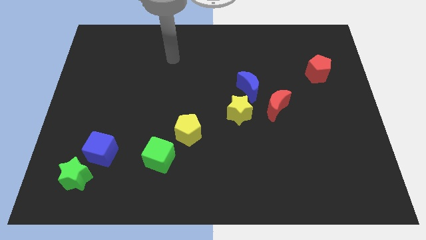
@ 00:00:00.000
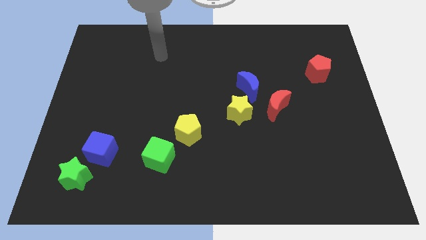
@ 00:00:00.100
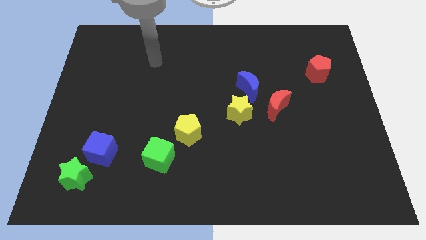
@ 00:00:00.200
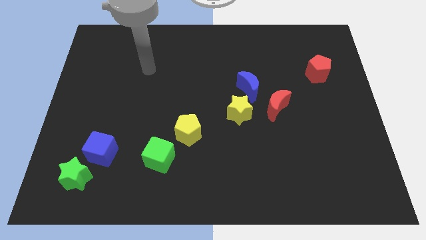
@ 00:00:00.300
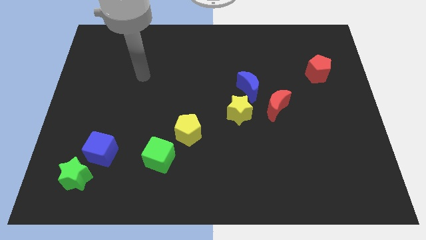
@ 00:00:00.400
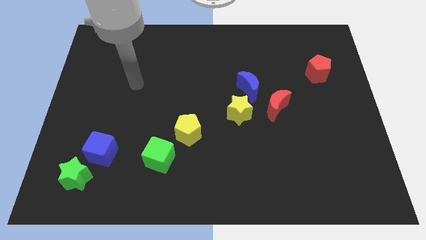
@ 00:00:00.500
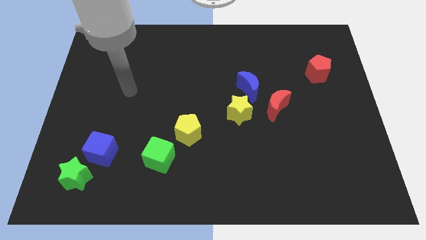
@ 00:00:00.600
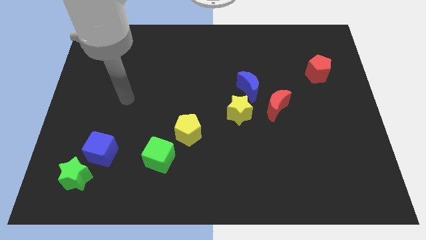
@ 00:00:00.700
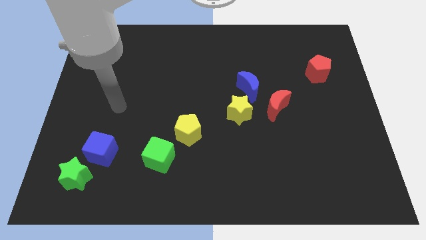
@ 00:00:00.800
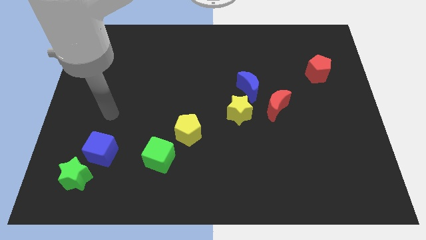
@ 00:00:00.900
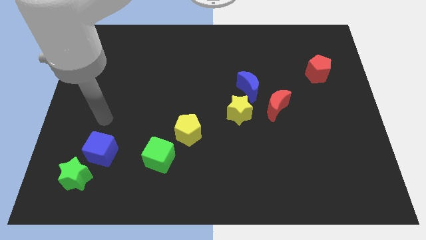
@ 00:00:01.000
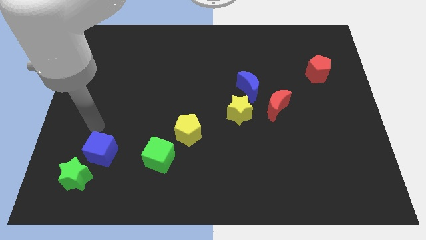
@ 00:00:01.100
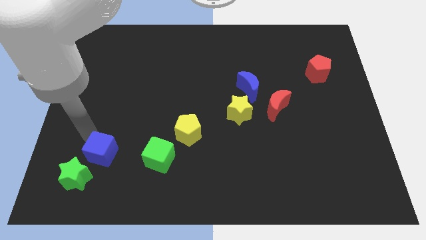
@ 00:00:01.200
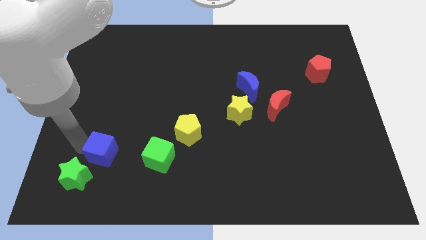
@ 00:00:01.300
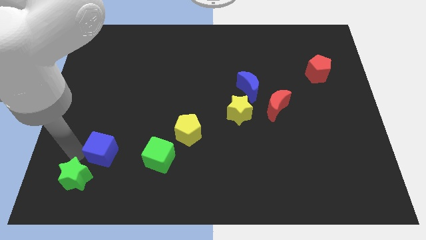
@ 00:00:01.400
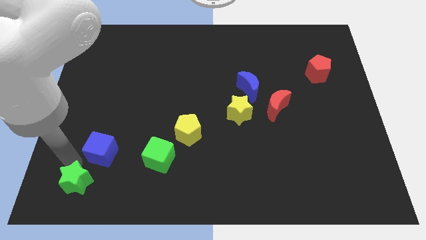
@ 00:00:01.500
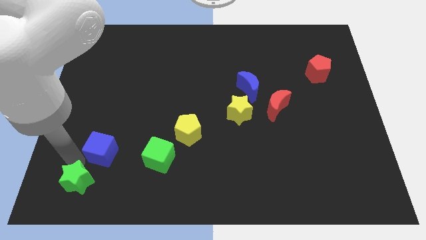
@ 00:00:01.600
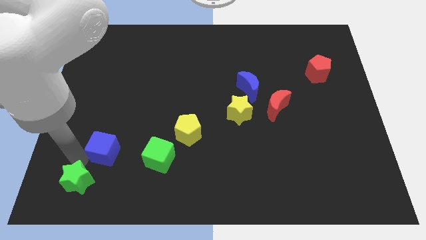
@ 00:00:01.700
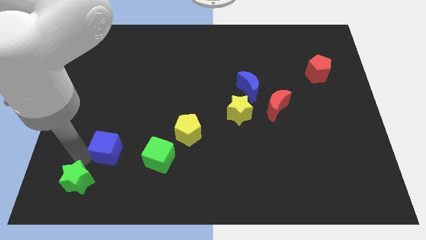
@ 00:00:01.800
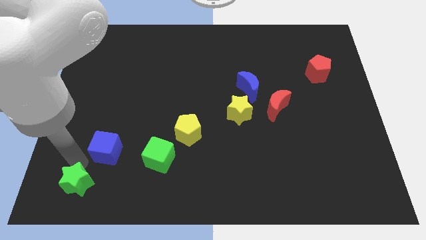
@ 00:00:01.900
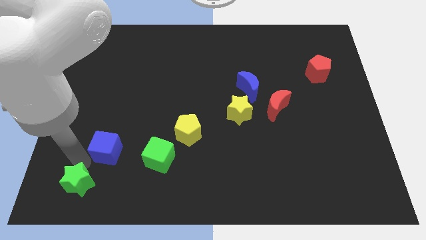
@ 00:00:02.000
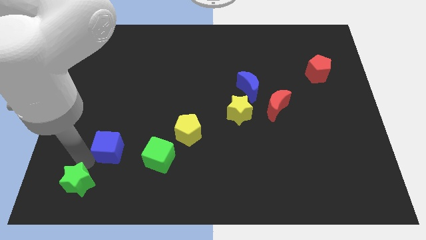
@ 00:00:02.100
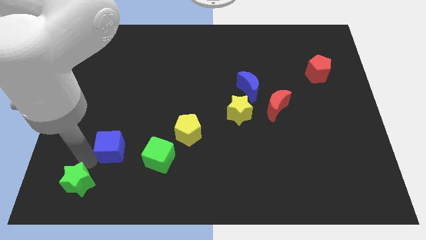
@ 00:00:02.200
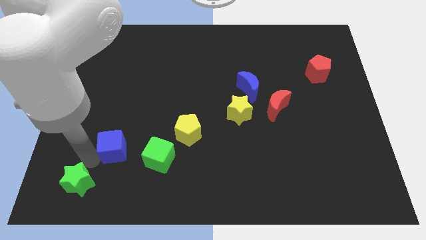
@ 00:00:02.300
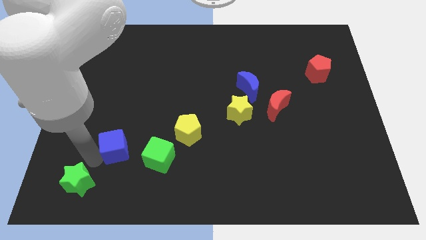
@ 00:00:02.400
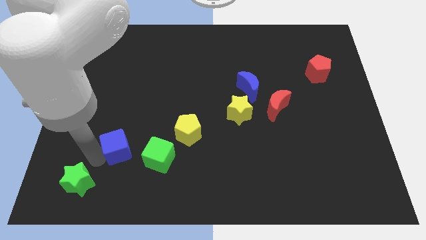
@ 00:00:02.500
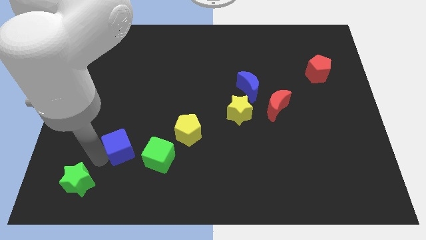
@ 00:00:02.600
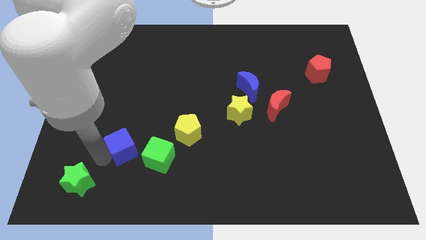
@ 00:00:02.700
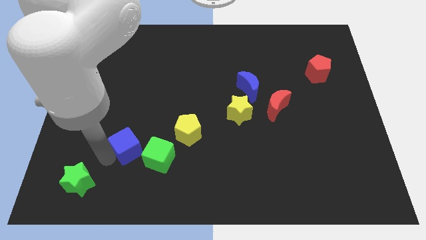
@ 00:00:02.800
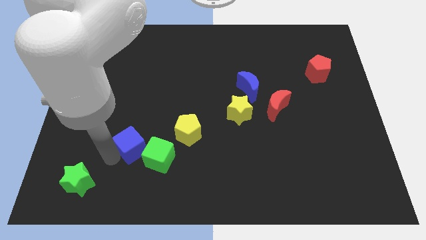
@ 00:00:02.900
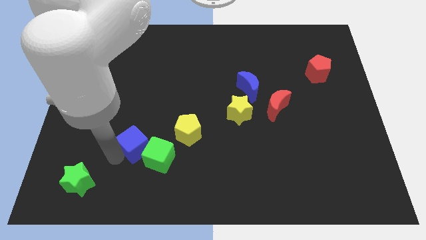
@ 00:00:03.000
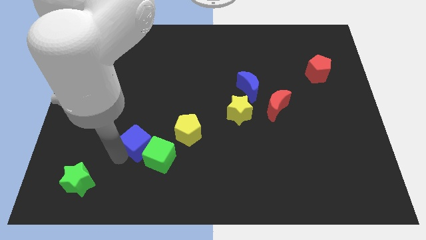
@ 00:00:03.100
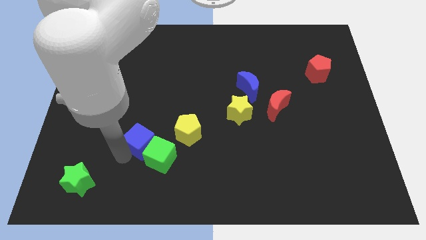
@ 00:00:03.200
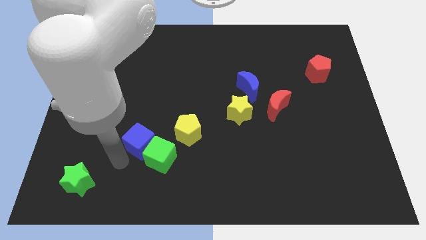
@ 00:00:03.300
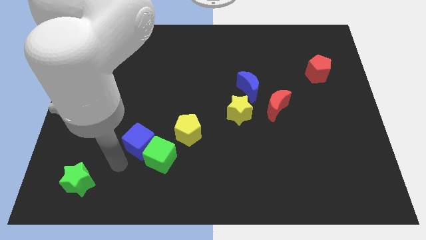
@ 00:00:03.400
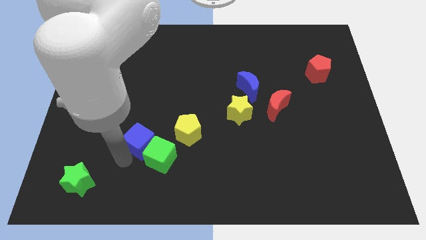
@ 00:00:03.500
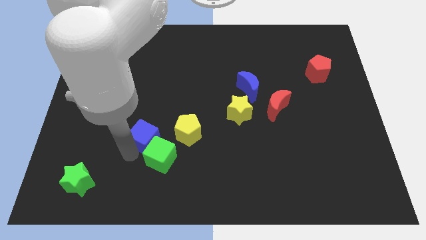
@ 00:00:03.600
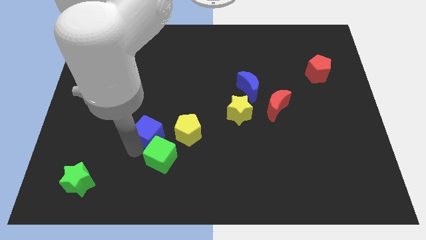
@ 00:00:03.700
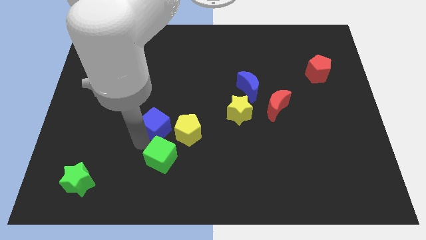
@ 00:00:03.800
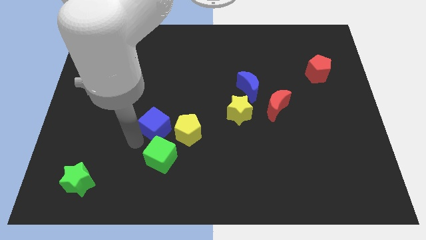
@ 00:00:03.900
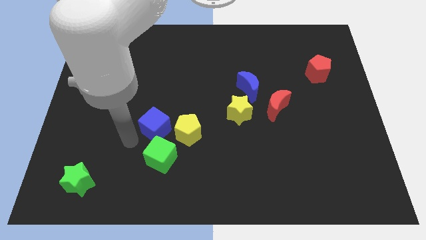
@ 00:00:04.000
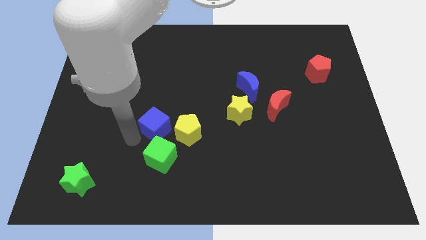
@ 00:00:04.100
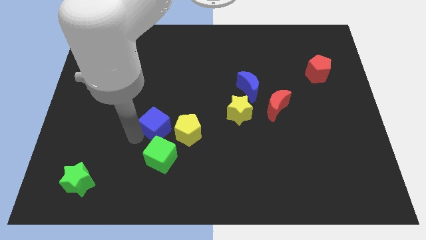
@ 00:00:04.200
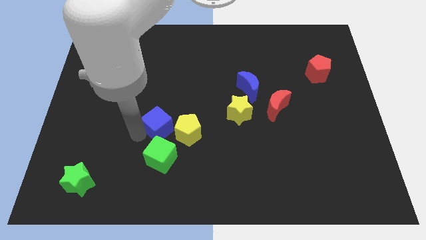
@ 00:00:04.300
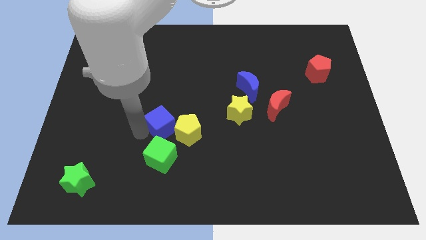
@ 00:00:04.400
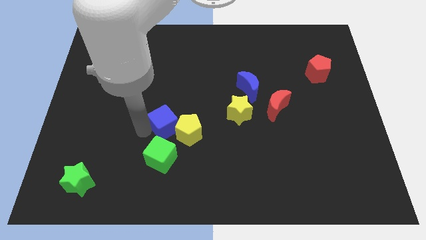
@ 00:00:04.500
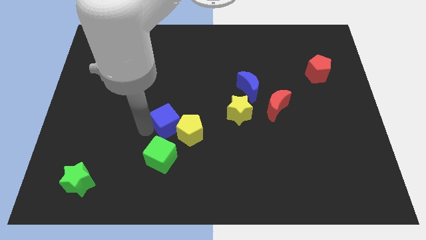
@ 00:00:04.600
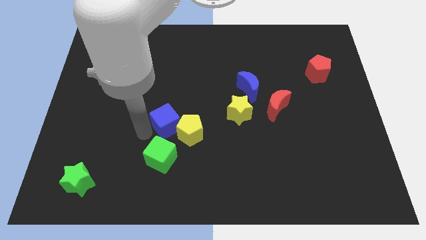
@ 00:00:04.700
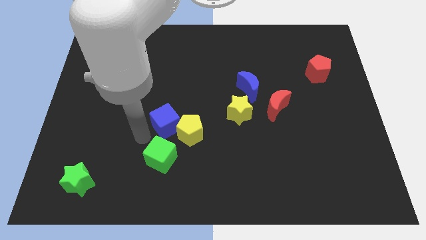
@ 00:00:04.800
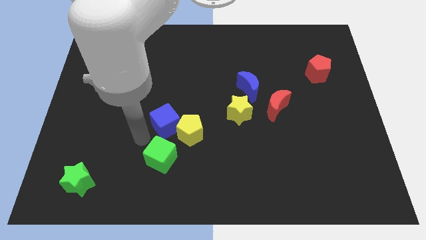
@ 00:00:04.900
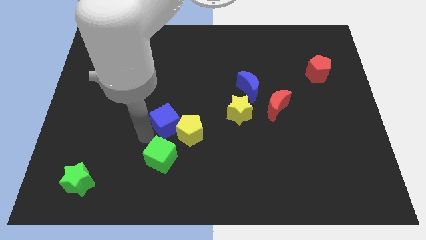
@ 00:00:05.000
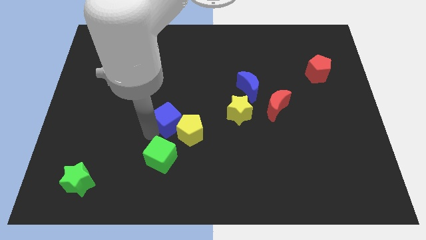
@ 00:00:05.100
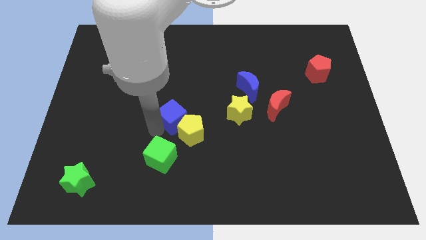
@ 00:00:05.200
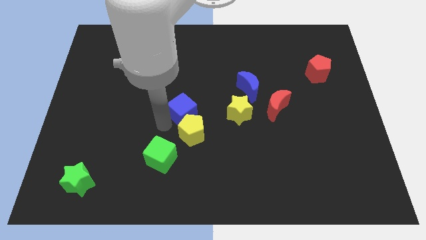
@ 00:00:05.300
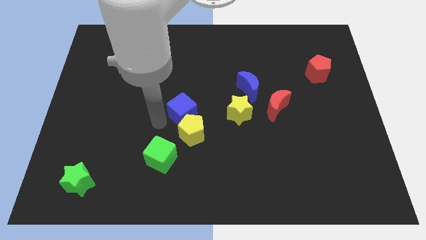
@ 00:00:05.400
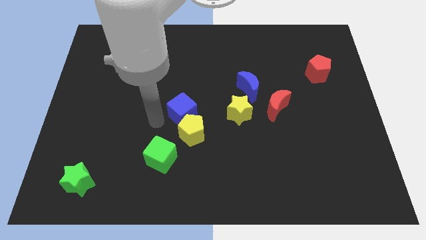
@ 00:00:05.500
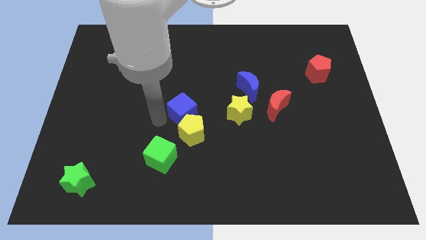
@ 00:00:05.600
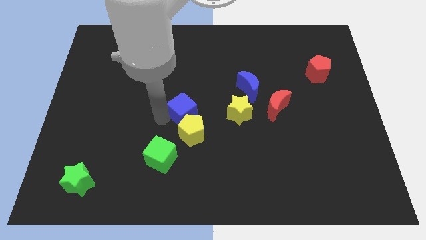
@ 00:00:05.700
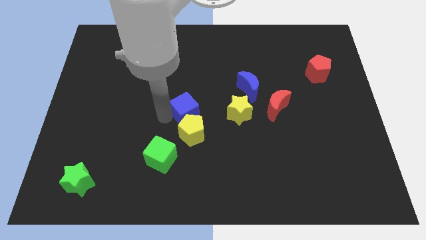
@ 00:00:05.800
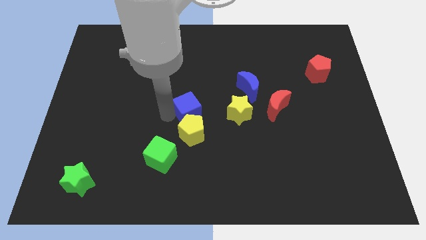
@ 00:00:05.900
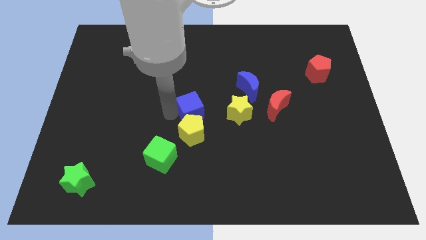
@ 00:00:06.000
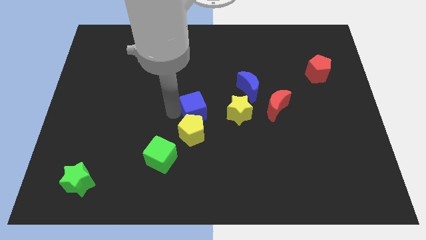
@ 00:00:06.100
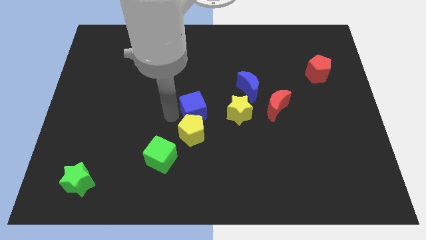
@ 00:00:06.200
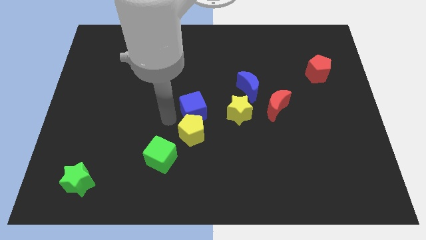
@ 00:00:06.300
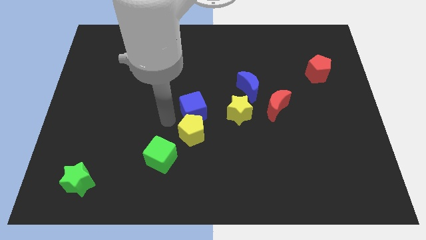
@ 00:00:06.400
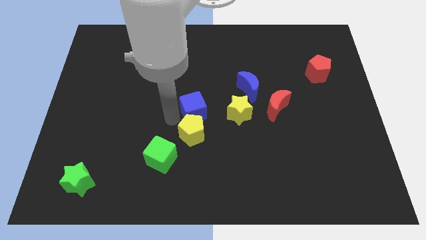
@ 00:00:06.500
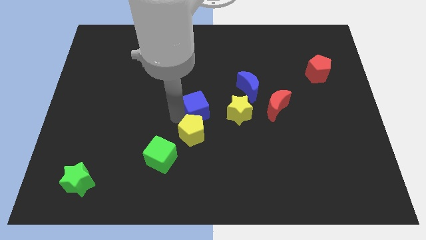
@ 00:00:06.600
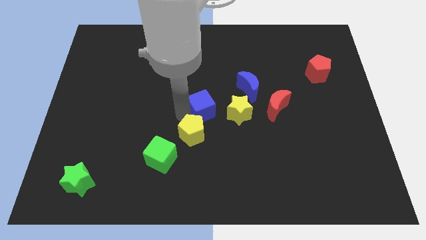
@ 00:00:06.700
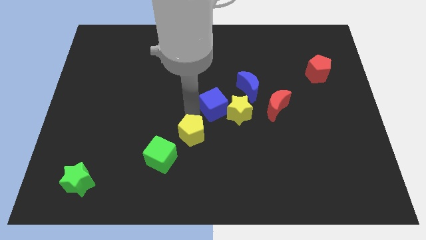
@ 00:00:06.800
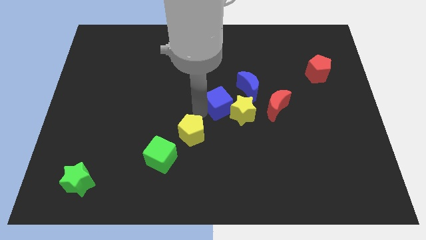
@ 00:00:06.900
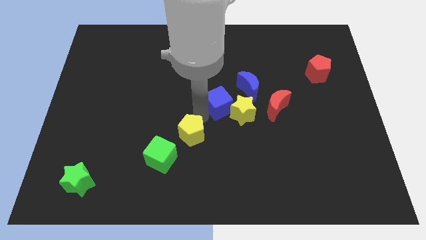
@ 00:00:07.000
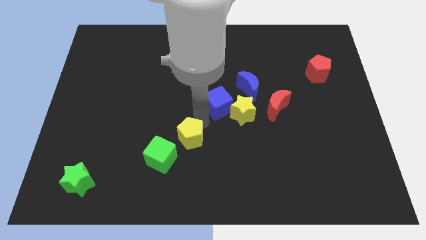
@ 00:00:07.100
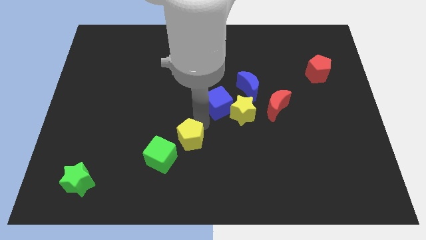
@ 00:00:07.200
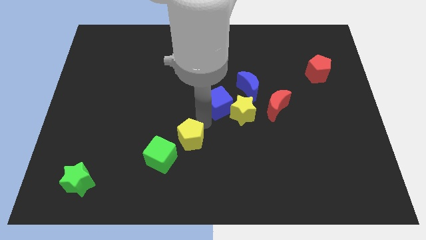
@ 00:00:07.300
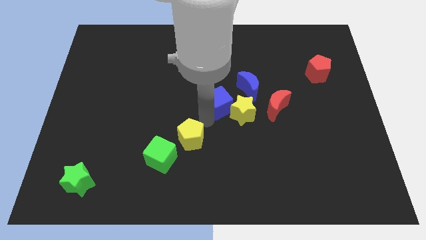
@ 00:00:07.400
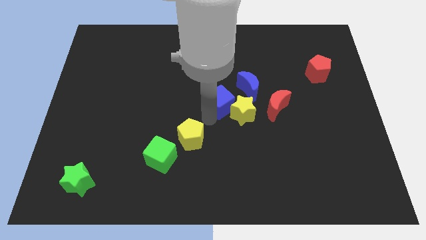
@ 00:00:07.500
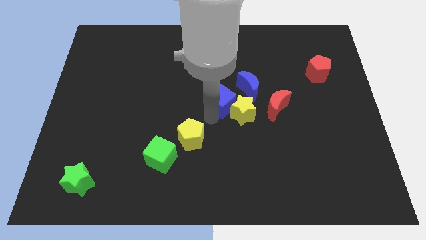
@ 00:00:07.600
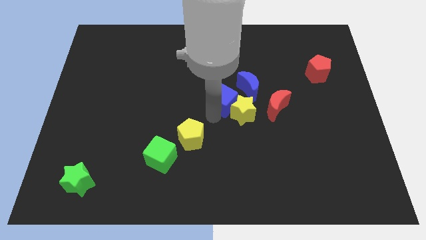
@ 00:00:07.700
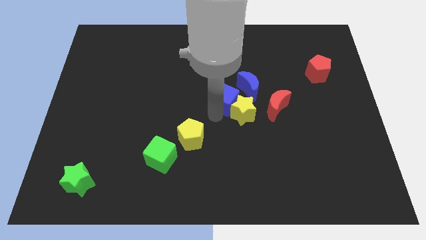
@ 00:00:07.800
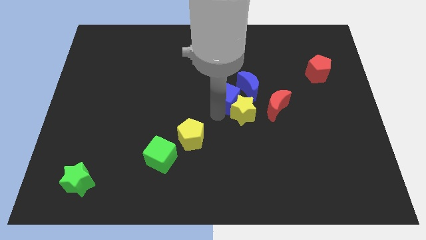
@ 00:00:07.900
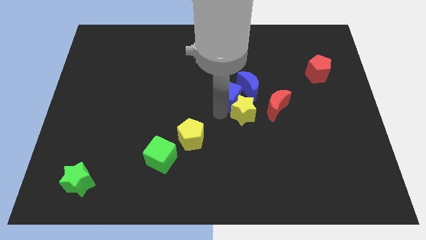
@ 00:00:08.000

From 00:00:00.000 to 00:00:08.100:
move the blue cube towards the blue moon
